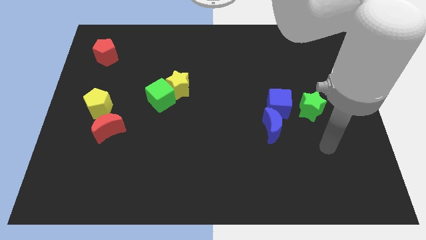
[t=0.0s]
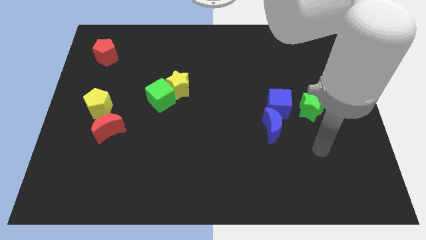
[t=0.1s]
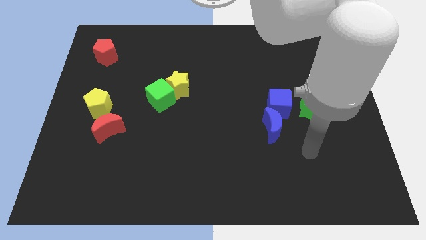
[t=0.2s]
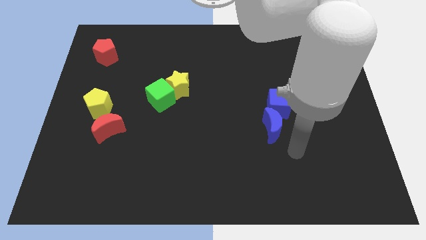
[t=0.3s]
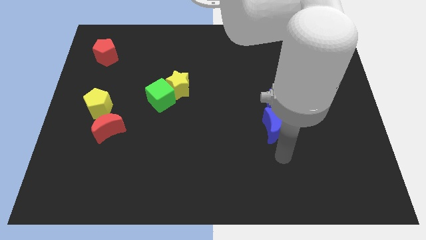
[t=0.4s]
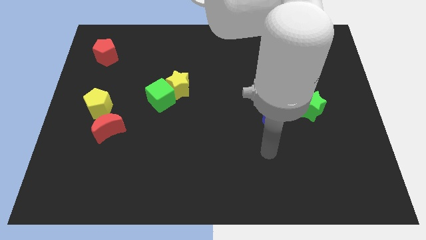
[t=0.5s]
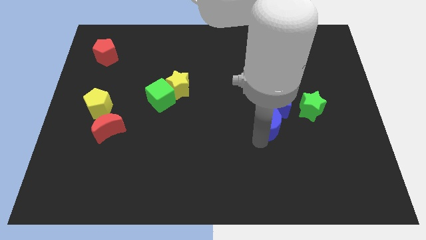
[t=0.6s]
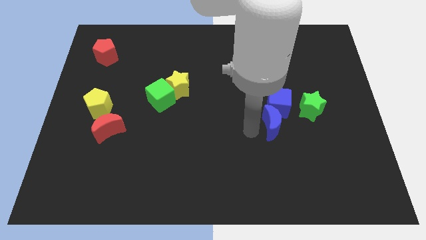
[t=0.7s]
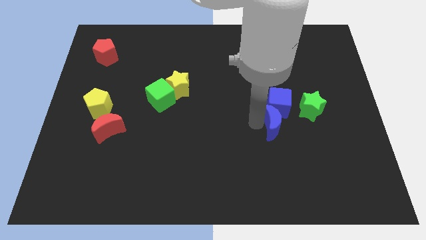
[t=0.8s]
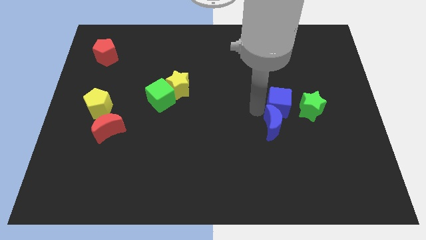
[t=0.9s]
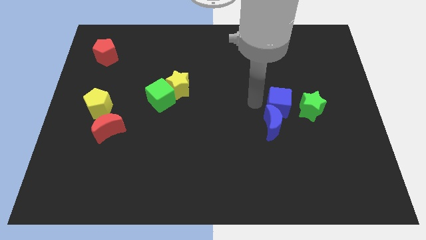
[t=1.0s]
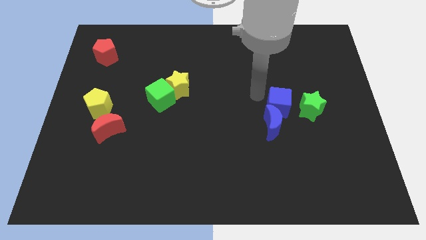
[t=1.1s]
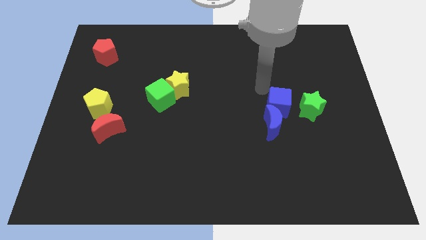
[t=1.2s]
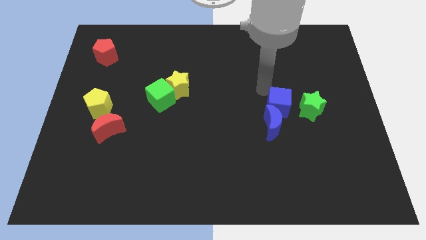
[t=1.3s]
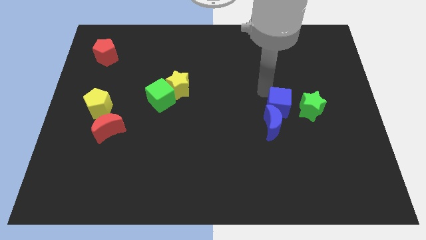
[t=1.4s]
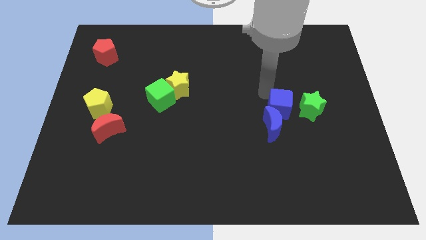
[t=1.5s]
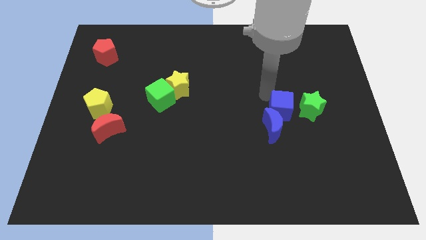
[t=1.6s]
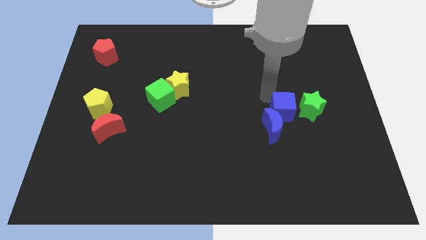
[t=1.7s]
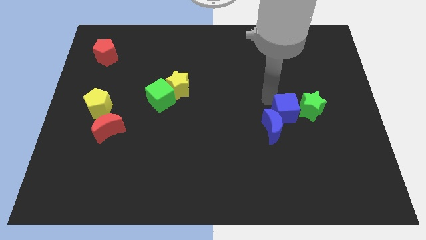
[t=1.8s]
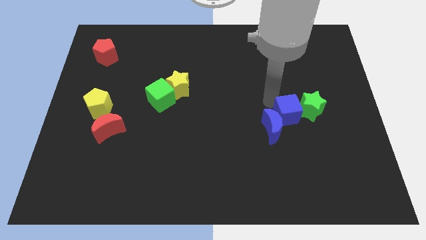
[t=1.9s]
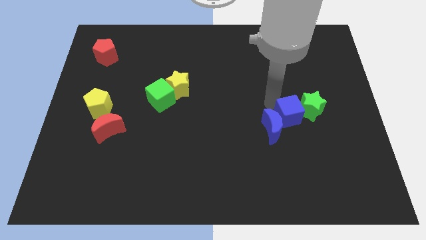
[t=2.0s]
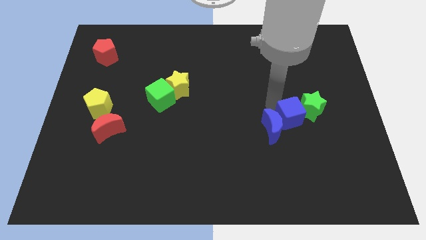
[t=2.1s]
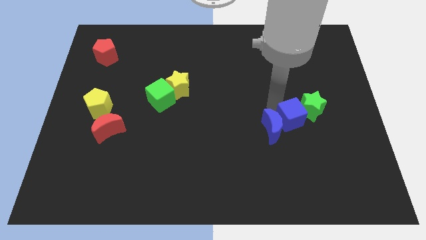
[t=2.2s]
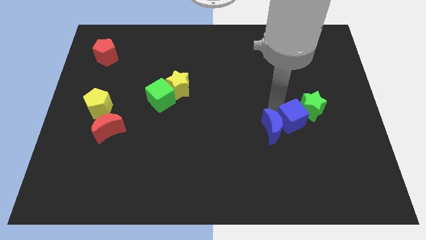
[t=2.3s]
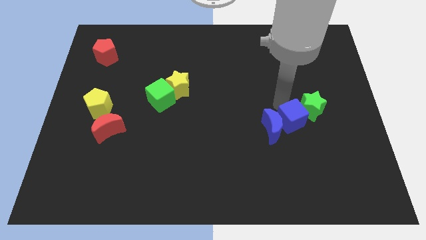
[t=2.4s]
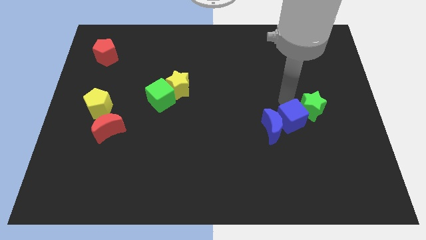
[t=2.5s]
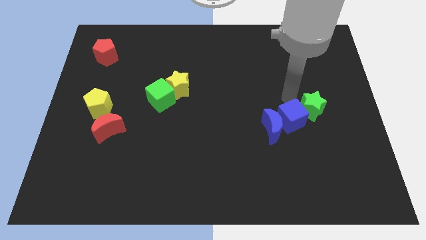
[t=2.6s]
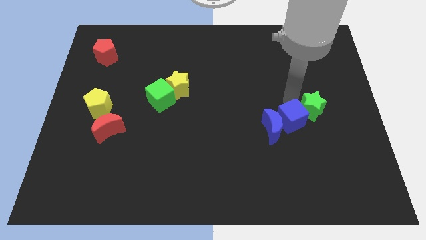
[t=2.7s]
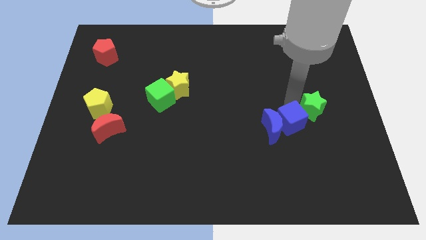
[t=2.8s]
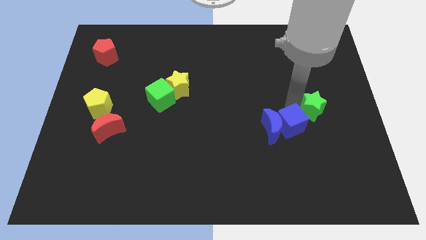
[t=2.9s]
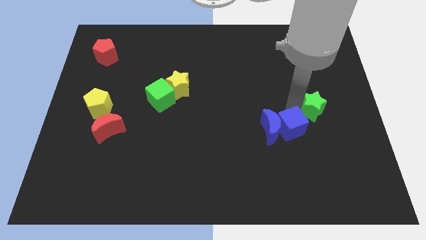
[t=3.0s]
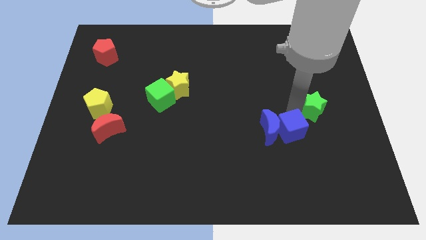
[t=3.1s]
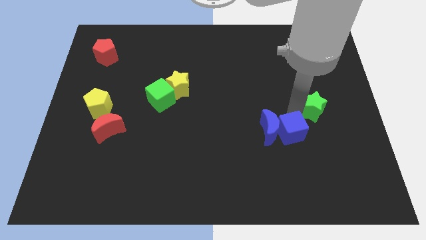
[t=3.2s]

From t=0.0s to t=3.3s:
slightly slide the blue cube downwards

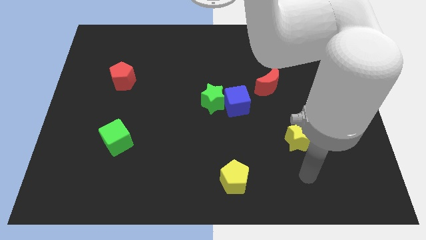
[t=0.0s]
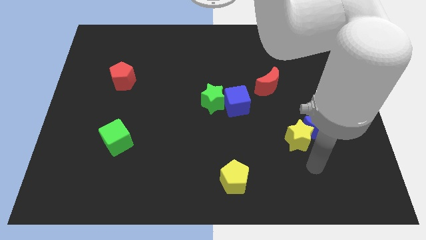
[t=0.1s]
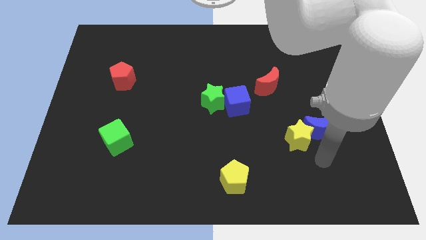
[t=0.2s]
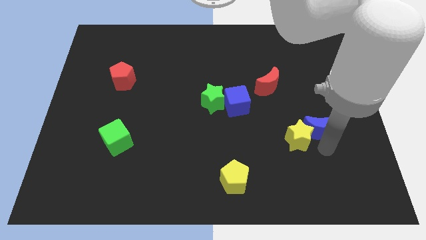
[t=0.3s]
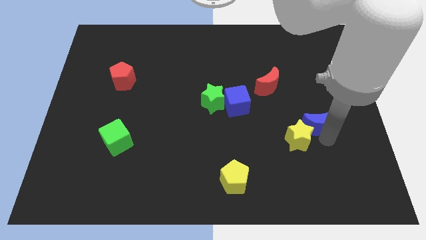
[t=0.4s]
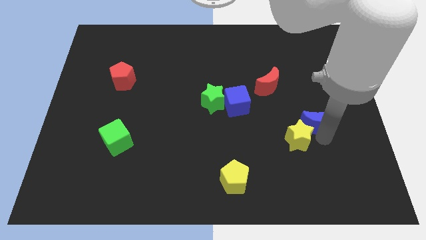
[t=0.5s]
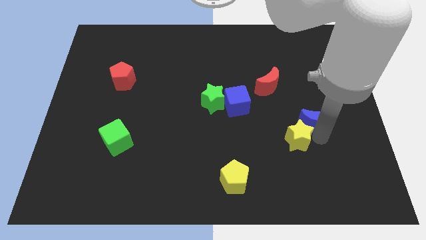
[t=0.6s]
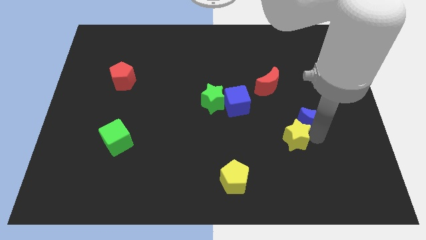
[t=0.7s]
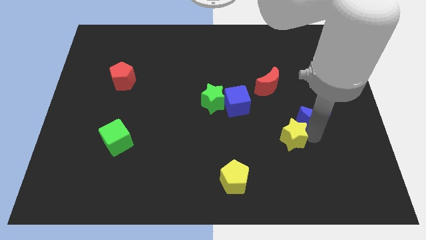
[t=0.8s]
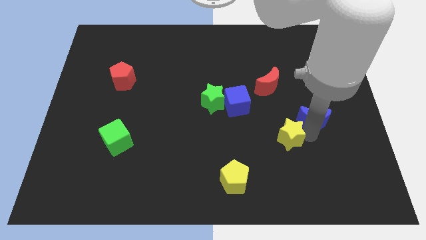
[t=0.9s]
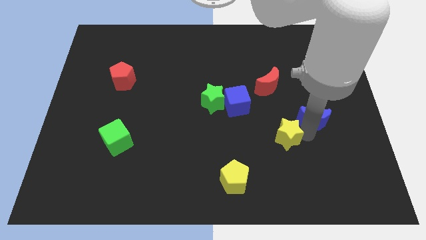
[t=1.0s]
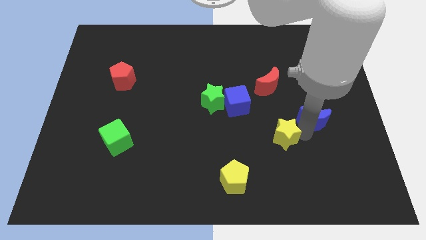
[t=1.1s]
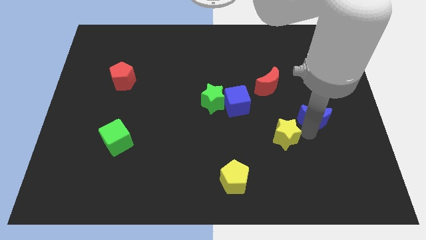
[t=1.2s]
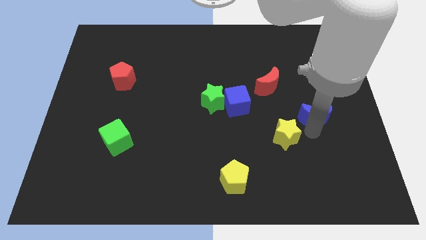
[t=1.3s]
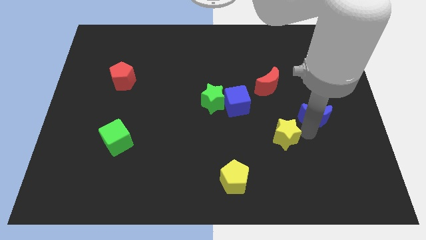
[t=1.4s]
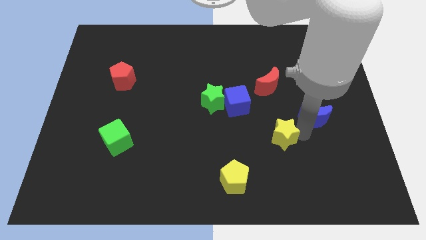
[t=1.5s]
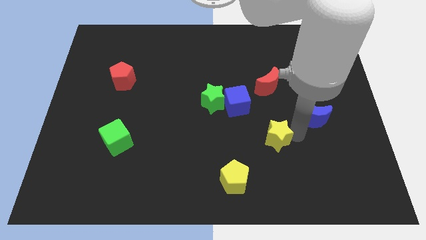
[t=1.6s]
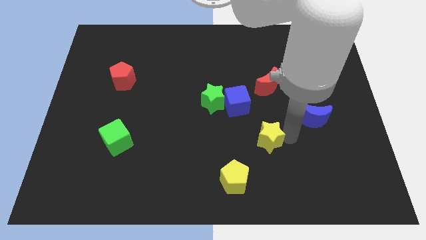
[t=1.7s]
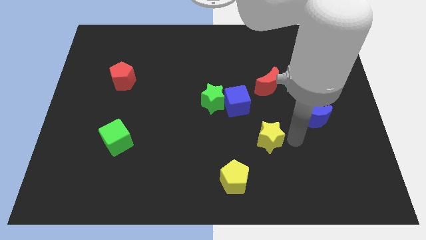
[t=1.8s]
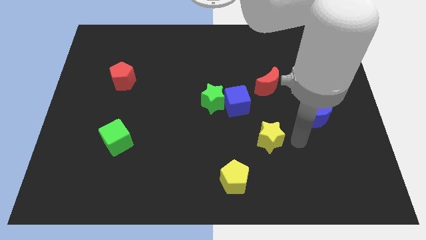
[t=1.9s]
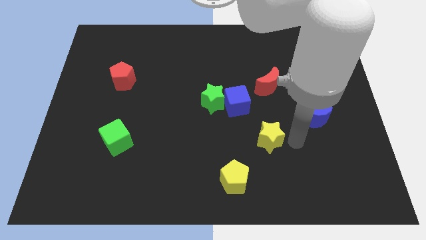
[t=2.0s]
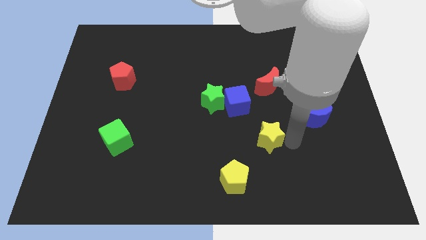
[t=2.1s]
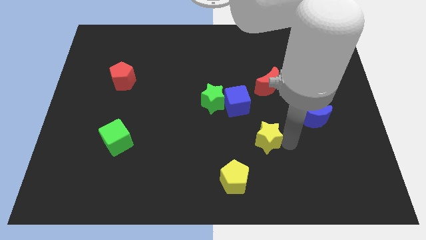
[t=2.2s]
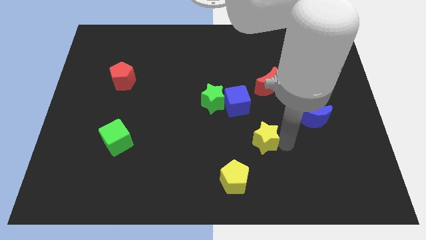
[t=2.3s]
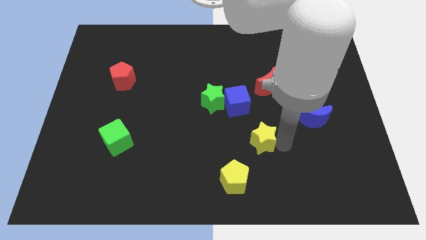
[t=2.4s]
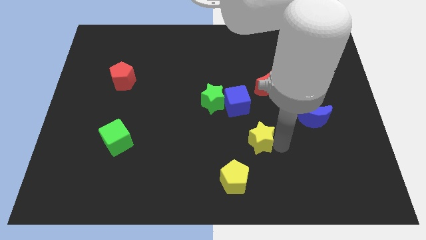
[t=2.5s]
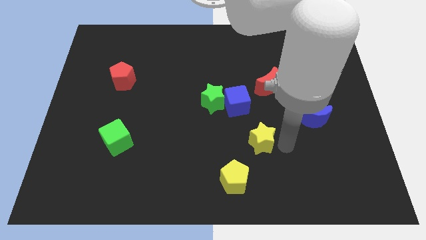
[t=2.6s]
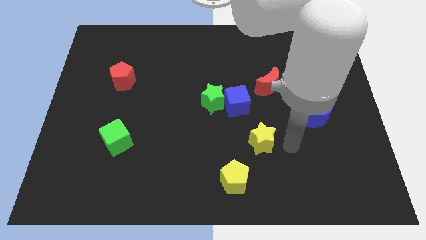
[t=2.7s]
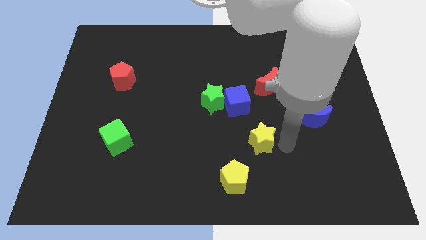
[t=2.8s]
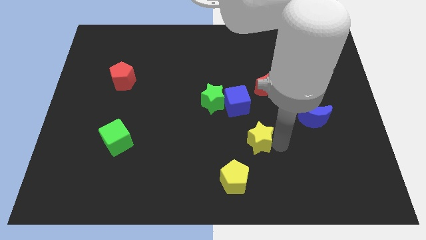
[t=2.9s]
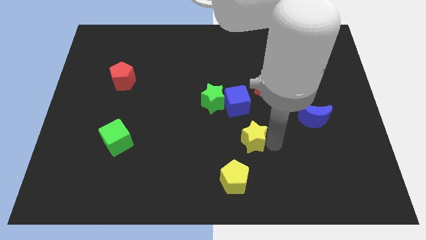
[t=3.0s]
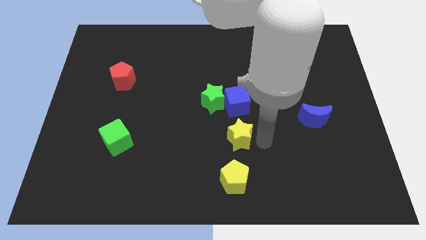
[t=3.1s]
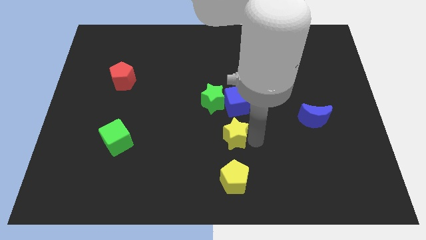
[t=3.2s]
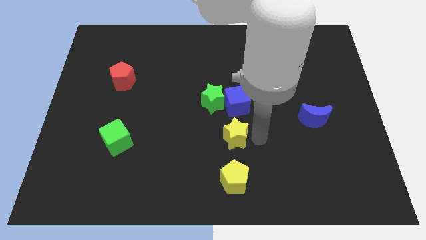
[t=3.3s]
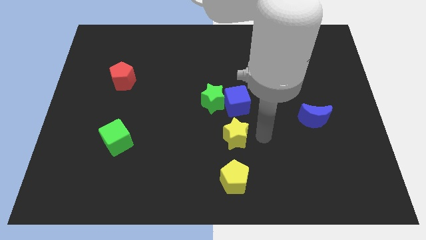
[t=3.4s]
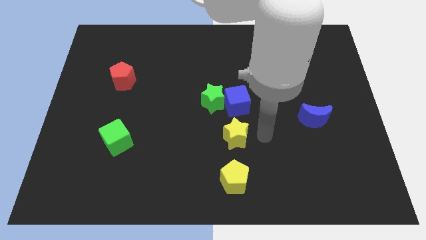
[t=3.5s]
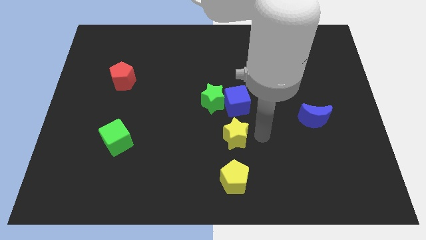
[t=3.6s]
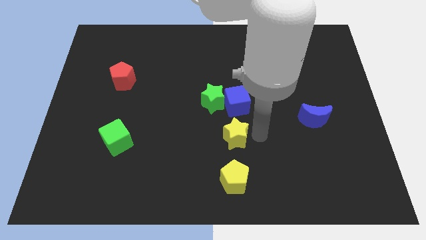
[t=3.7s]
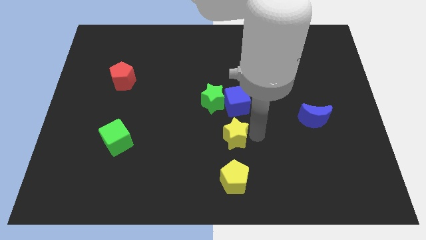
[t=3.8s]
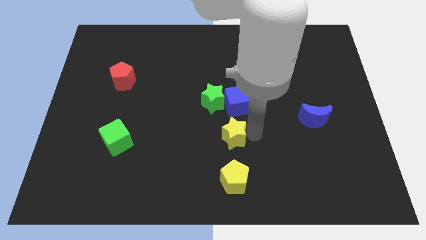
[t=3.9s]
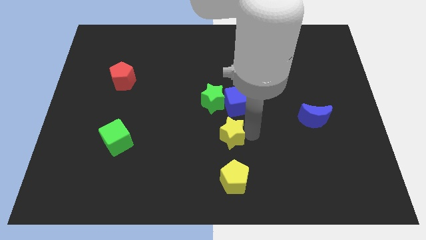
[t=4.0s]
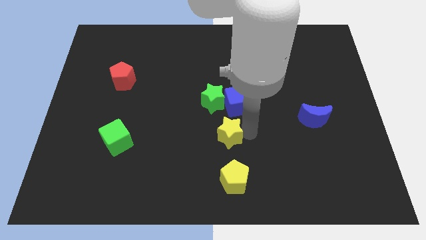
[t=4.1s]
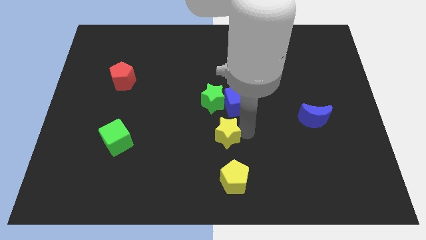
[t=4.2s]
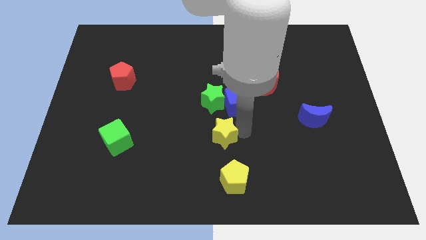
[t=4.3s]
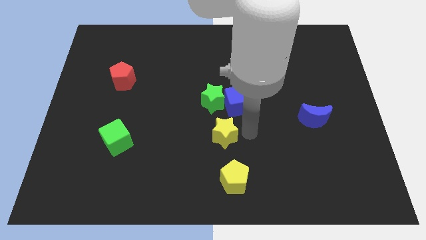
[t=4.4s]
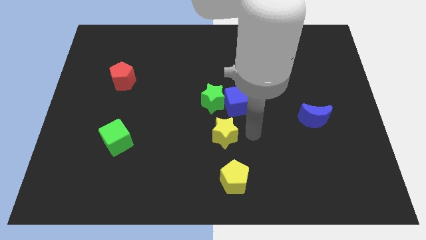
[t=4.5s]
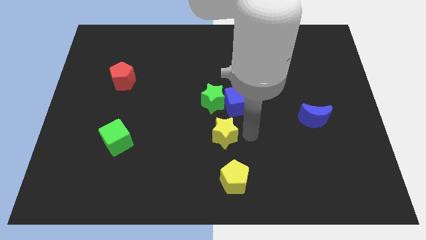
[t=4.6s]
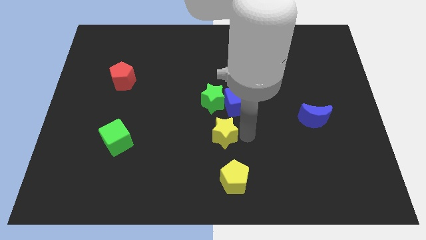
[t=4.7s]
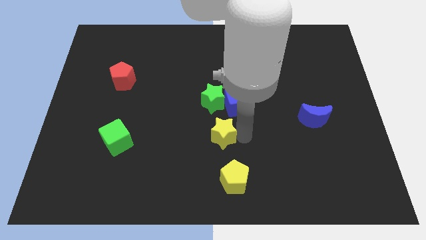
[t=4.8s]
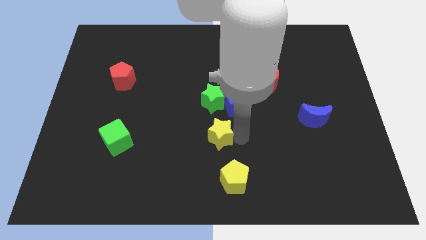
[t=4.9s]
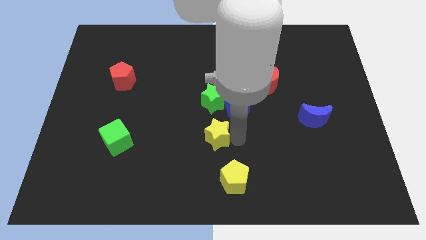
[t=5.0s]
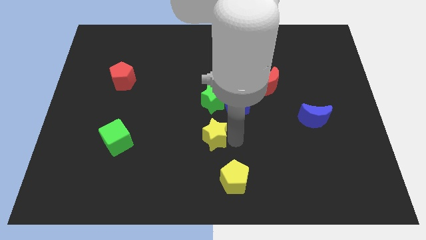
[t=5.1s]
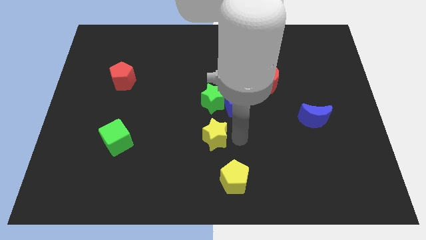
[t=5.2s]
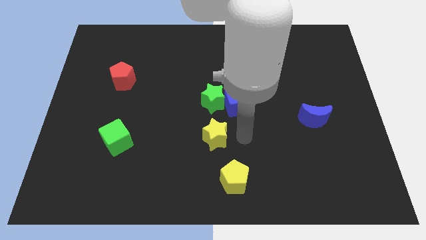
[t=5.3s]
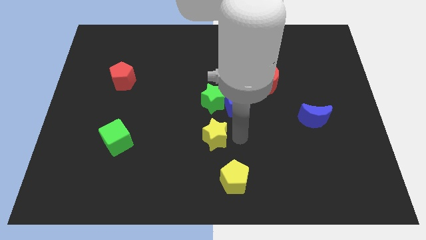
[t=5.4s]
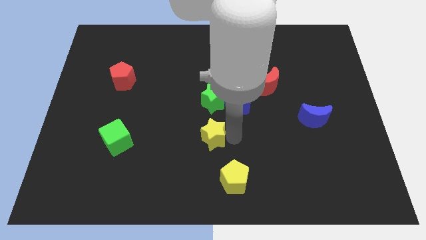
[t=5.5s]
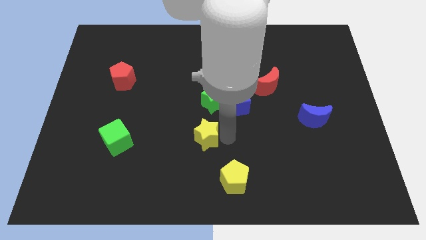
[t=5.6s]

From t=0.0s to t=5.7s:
move the yellow star to the left
